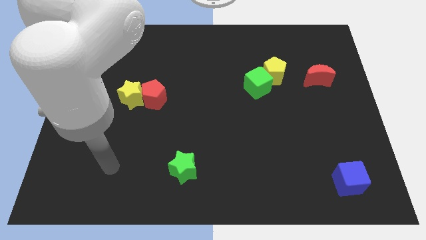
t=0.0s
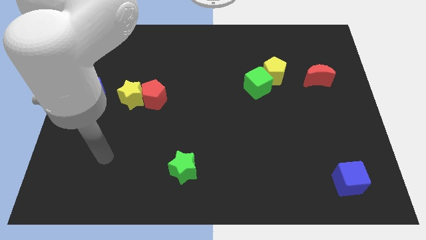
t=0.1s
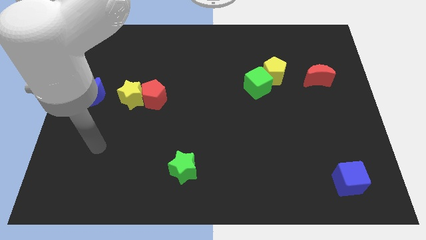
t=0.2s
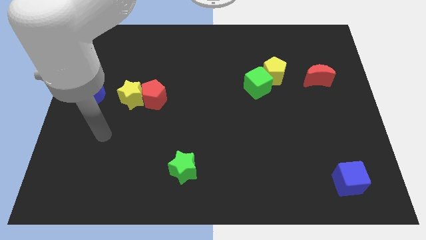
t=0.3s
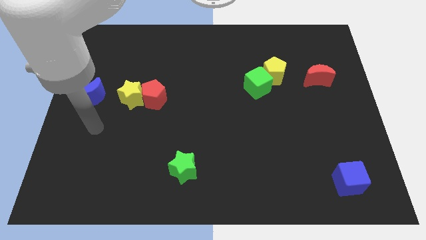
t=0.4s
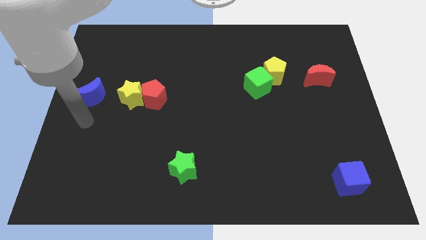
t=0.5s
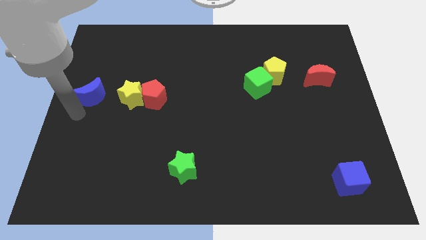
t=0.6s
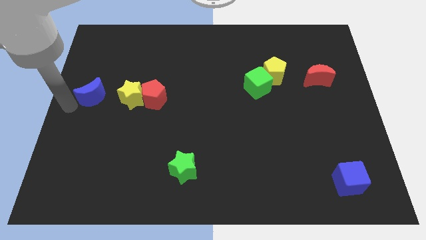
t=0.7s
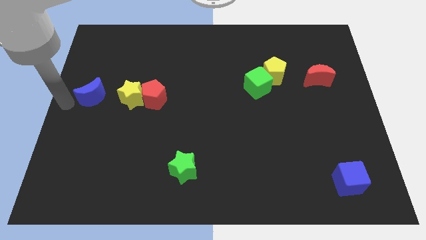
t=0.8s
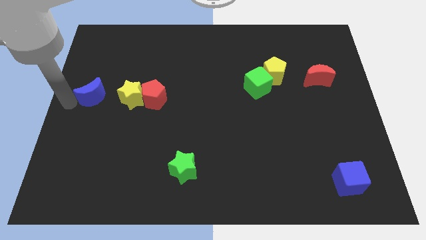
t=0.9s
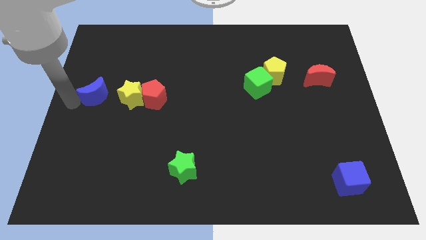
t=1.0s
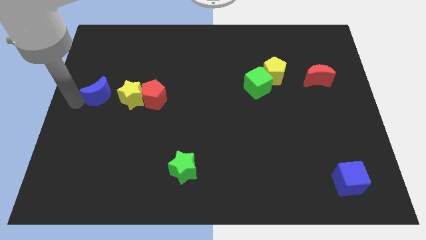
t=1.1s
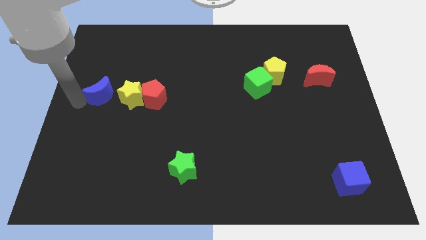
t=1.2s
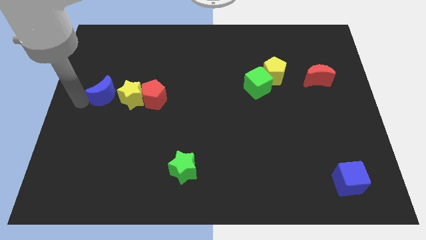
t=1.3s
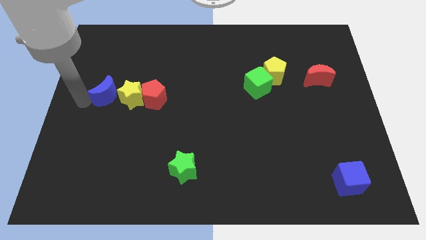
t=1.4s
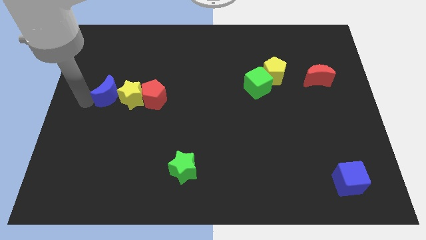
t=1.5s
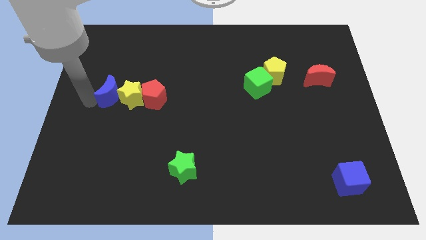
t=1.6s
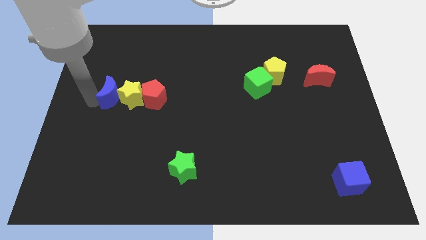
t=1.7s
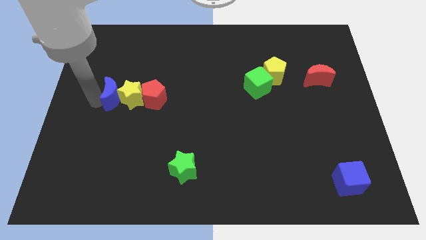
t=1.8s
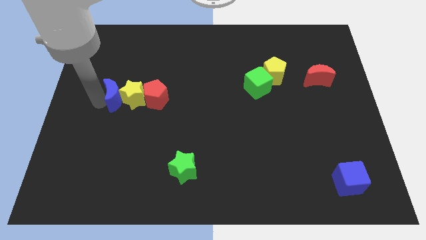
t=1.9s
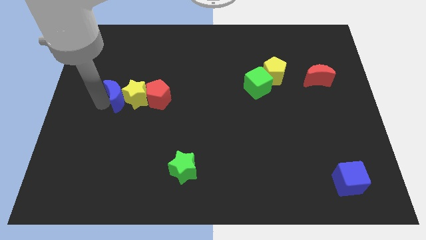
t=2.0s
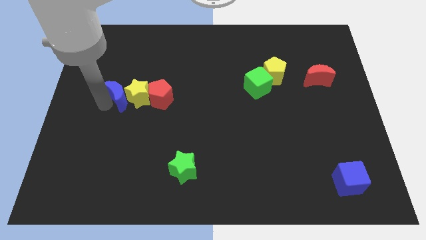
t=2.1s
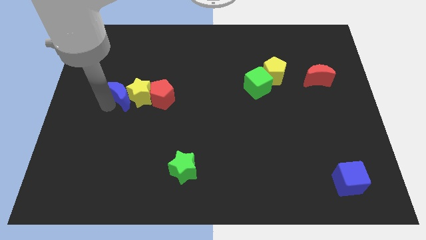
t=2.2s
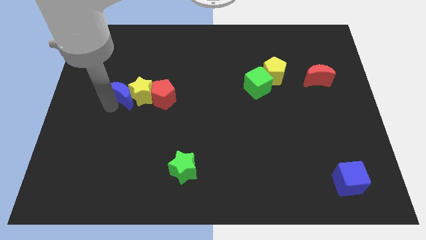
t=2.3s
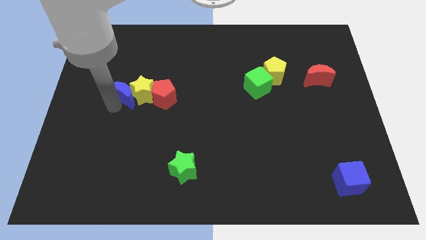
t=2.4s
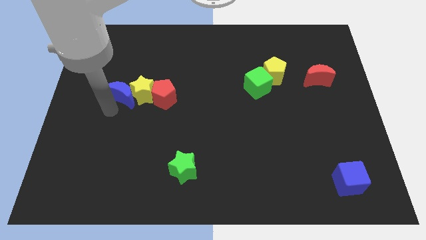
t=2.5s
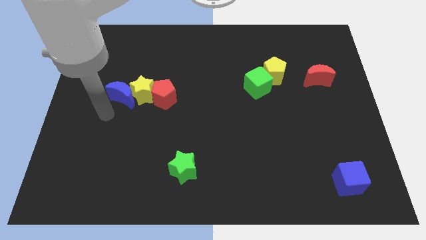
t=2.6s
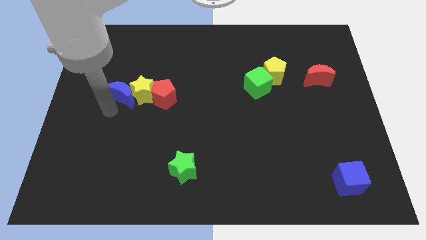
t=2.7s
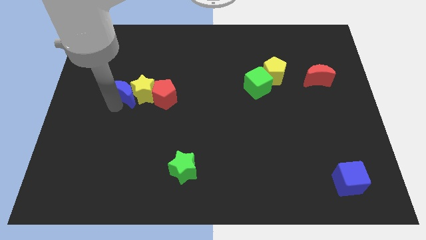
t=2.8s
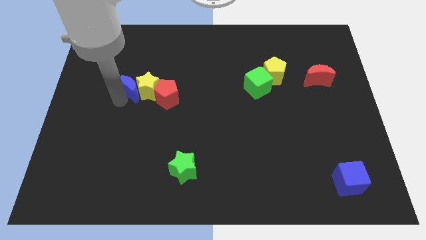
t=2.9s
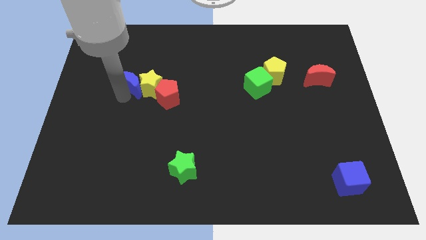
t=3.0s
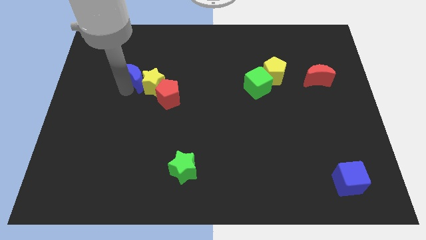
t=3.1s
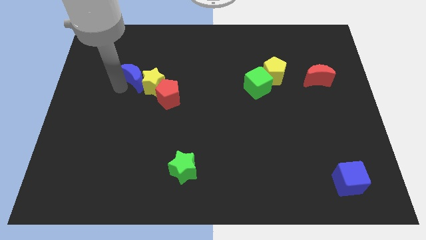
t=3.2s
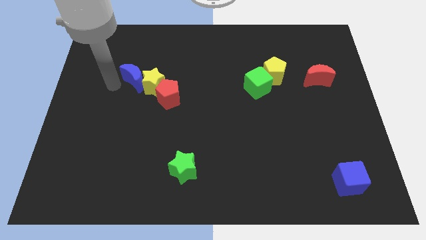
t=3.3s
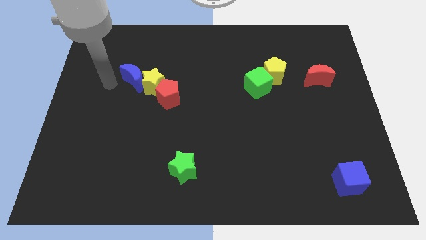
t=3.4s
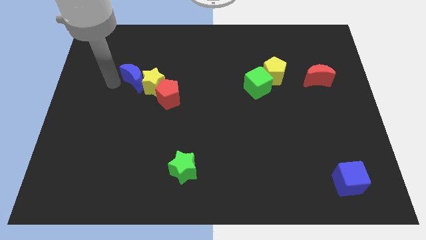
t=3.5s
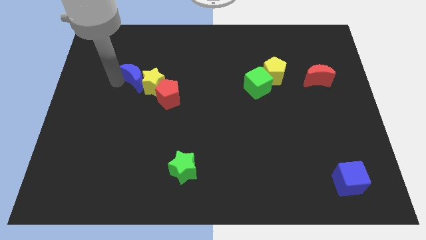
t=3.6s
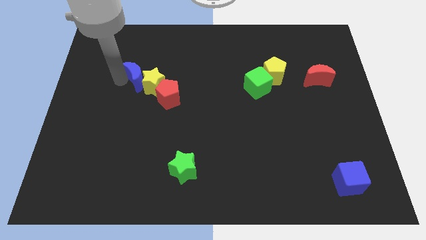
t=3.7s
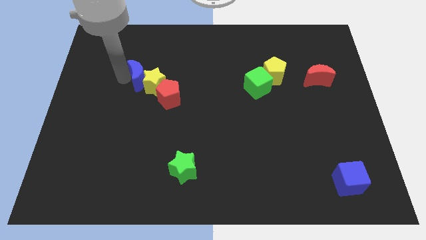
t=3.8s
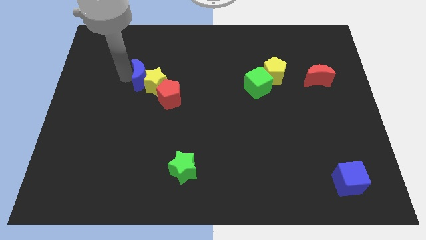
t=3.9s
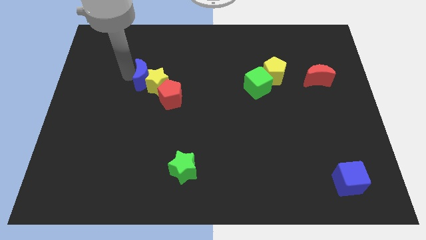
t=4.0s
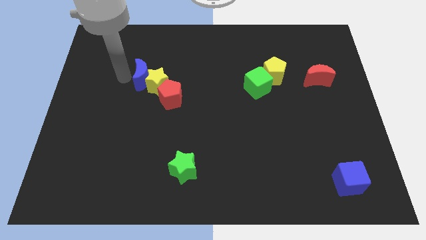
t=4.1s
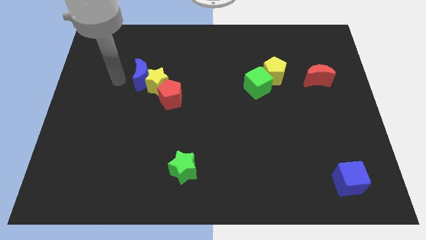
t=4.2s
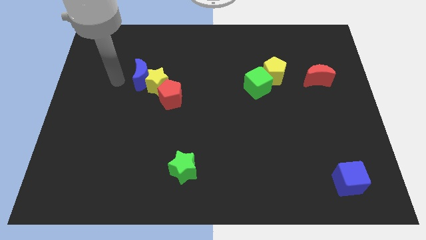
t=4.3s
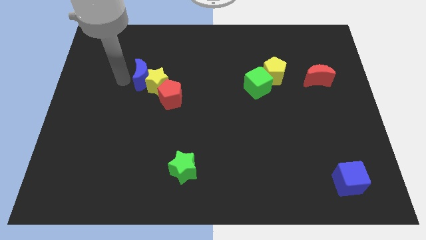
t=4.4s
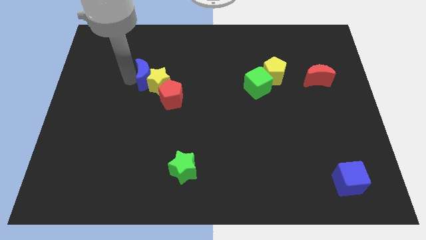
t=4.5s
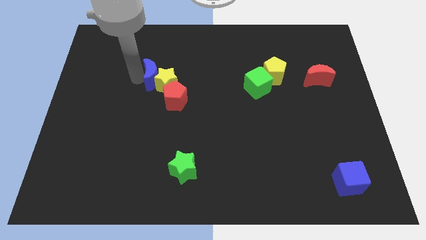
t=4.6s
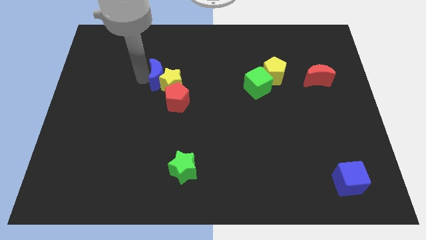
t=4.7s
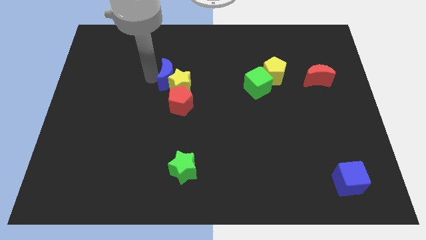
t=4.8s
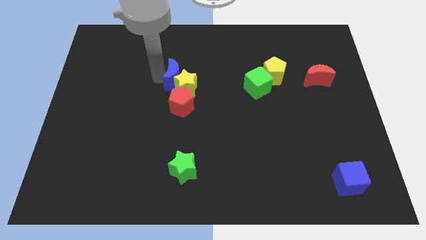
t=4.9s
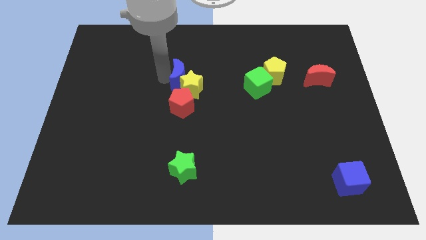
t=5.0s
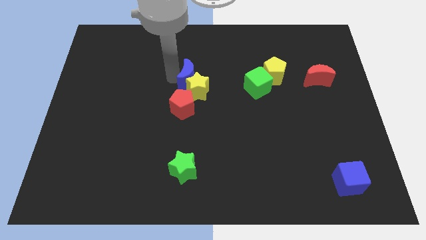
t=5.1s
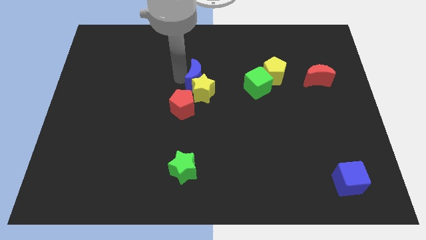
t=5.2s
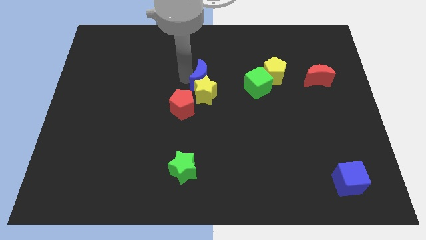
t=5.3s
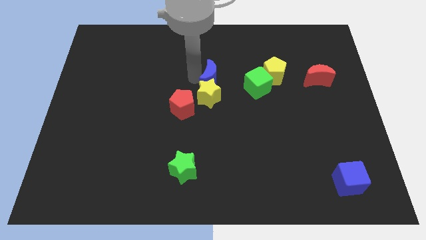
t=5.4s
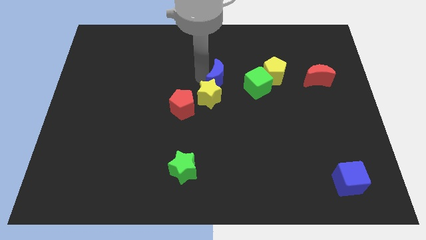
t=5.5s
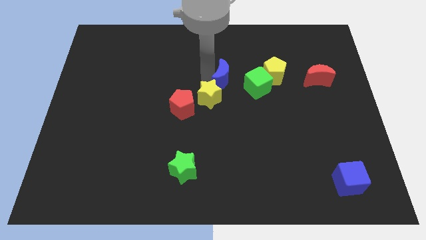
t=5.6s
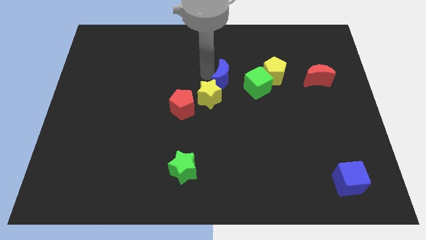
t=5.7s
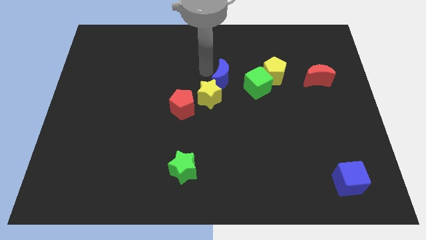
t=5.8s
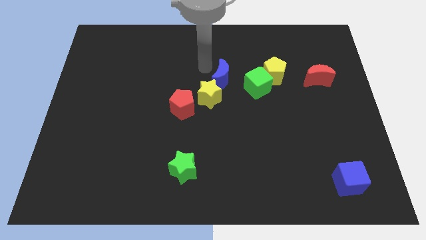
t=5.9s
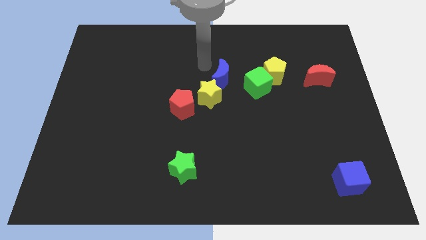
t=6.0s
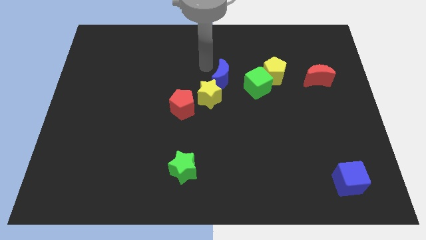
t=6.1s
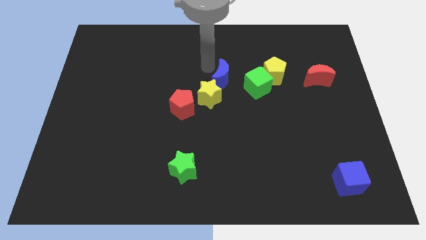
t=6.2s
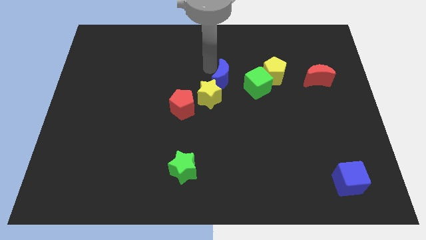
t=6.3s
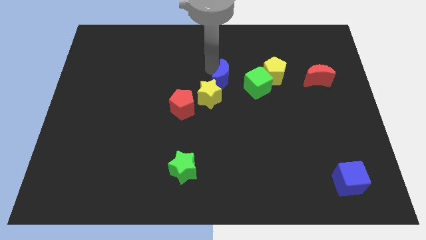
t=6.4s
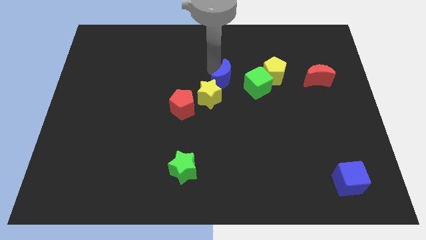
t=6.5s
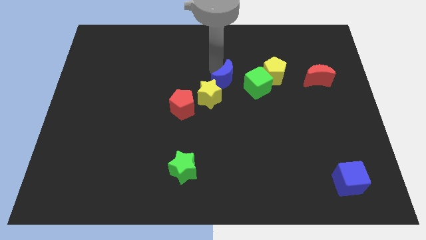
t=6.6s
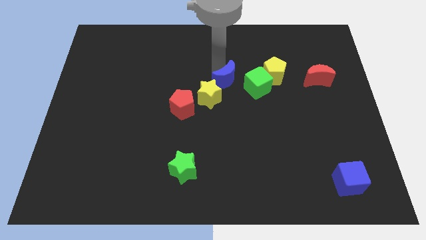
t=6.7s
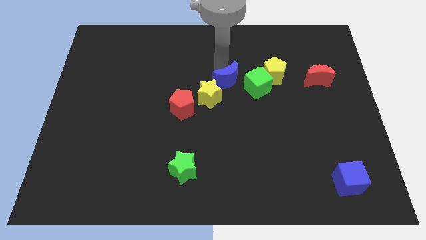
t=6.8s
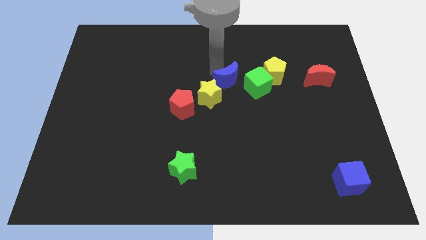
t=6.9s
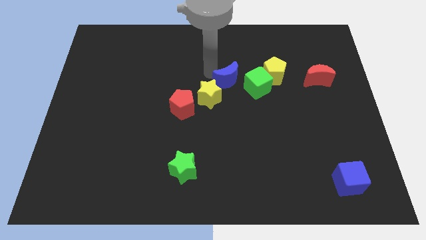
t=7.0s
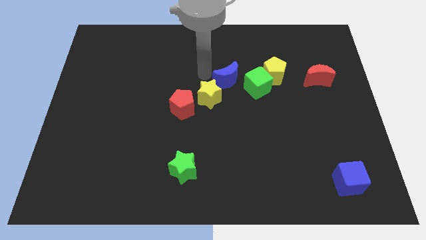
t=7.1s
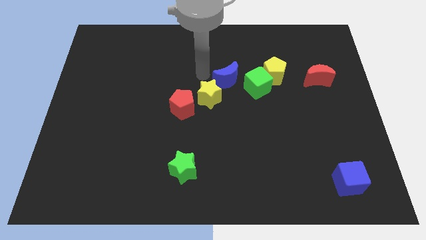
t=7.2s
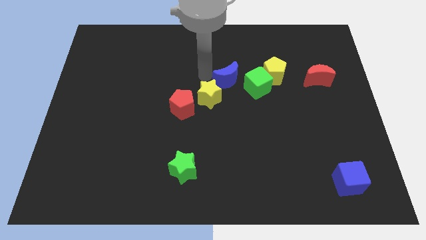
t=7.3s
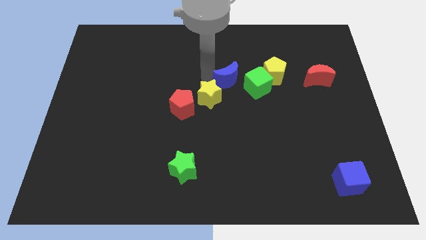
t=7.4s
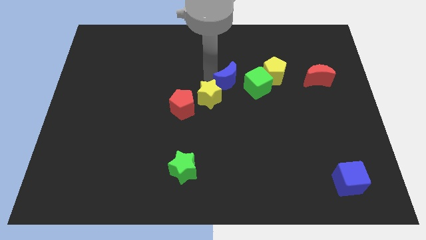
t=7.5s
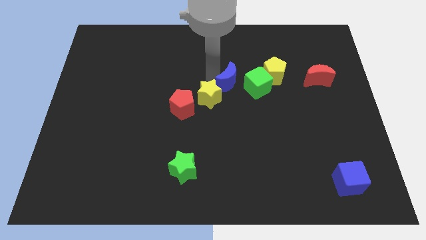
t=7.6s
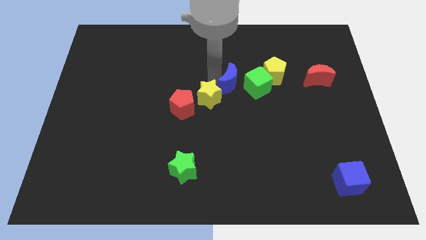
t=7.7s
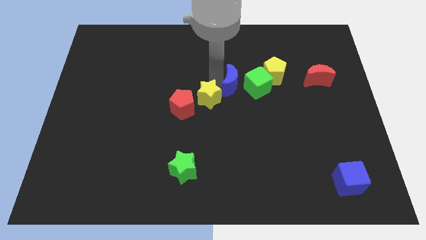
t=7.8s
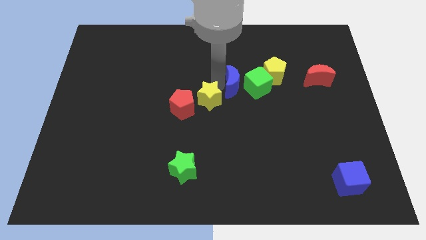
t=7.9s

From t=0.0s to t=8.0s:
put the blue moon to the green cube
